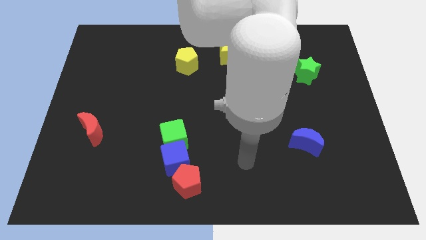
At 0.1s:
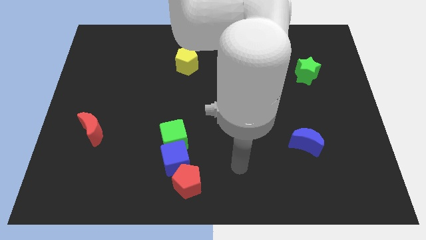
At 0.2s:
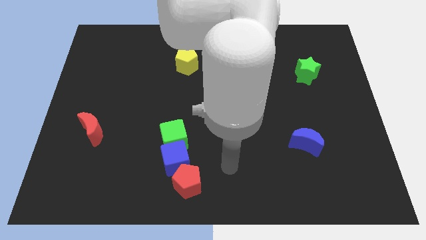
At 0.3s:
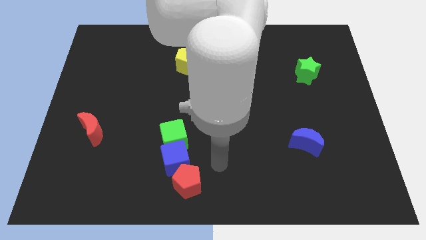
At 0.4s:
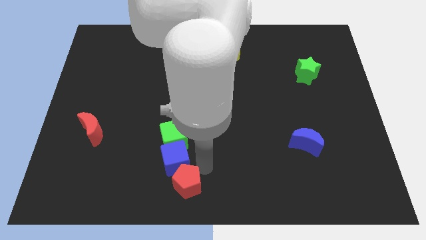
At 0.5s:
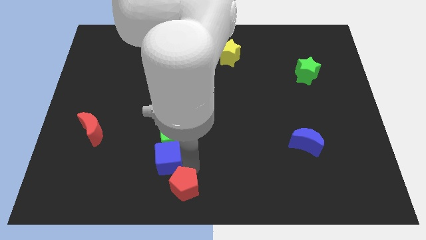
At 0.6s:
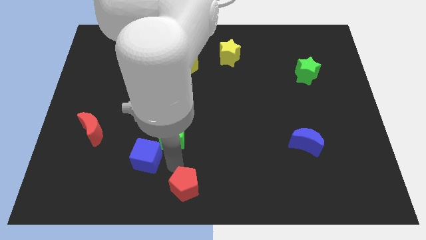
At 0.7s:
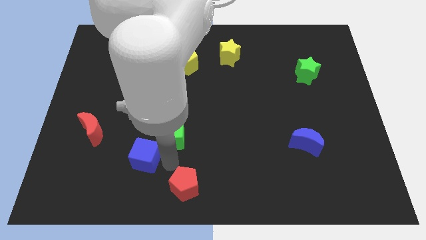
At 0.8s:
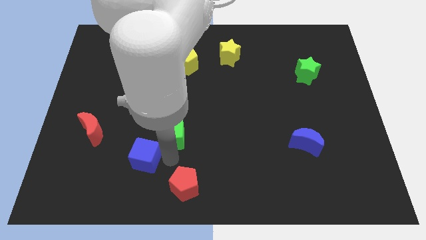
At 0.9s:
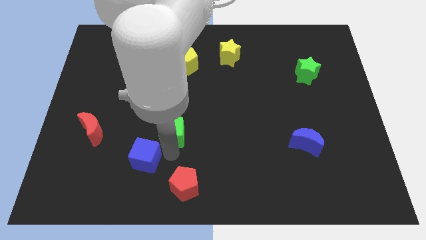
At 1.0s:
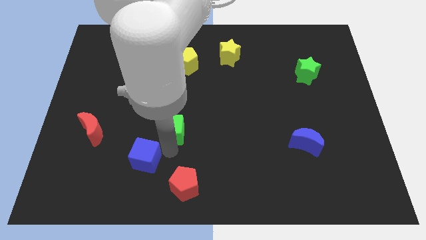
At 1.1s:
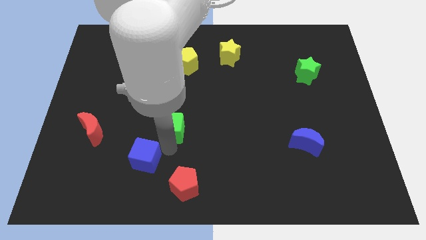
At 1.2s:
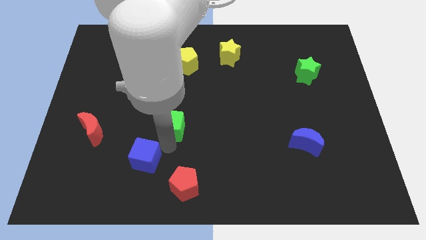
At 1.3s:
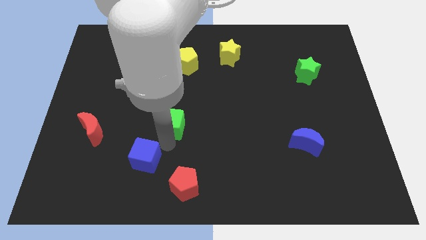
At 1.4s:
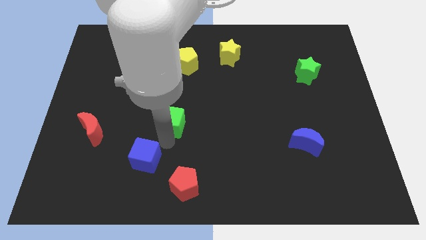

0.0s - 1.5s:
separate the green cube from the blue cube

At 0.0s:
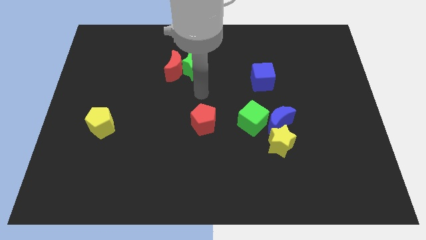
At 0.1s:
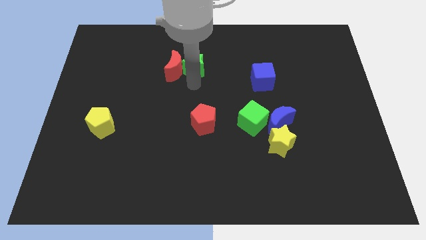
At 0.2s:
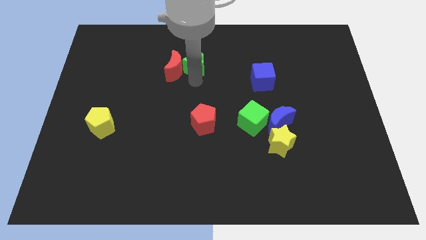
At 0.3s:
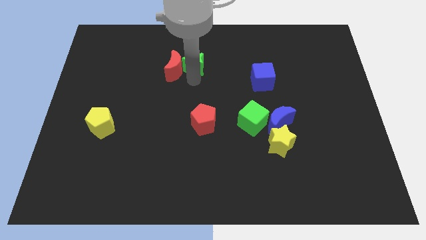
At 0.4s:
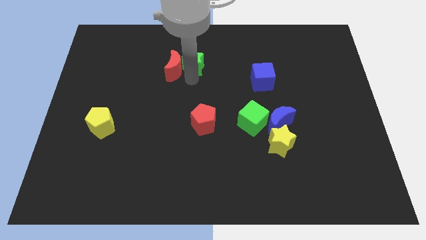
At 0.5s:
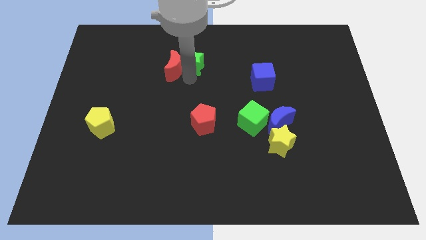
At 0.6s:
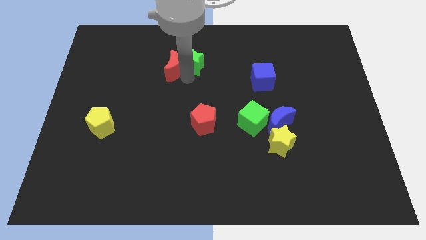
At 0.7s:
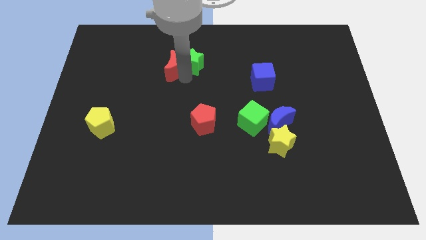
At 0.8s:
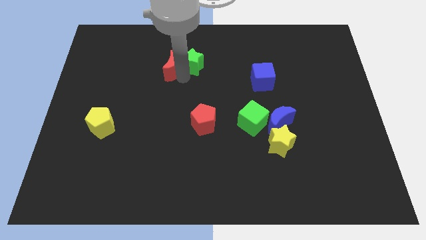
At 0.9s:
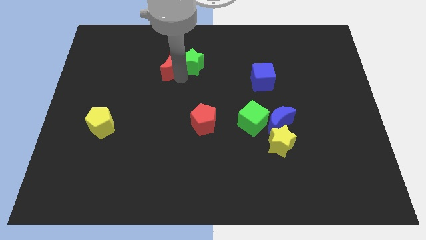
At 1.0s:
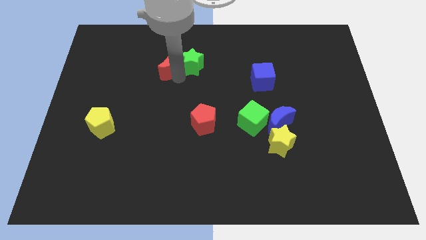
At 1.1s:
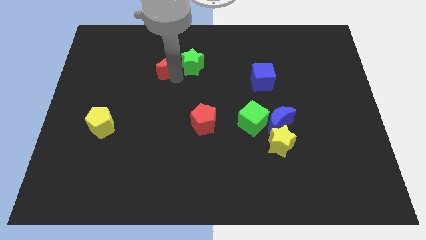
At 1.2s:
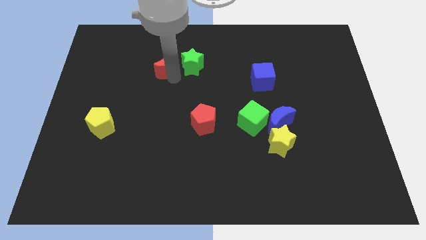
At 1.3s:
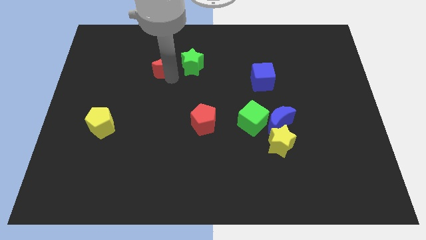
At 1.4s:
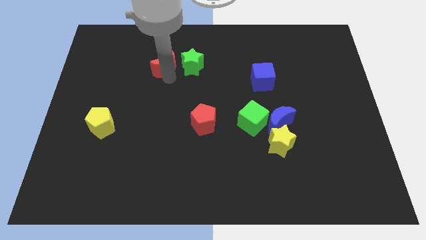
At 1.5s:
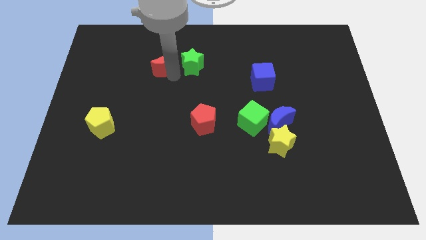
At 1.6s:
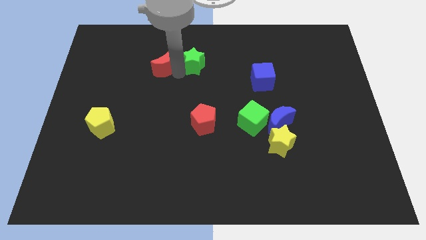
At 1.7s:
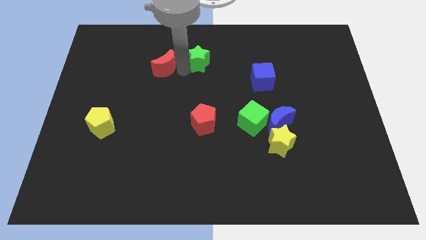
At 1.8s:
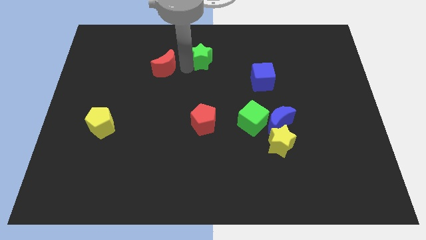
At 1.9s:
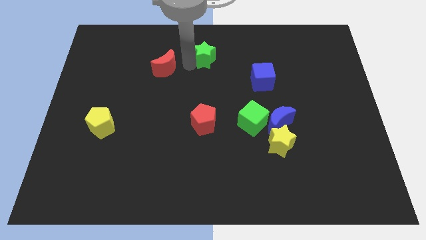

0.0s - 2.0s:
separate the red moon from the green star

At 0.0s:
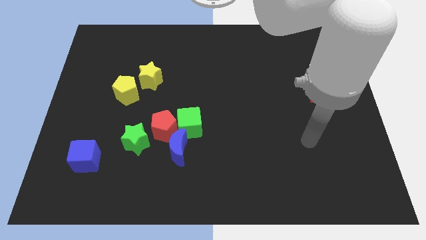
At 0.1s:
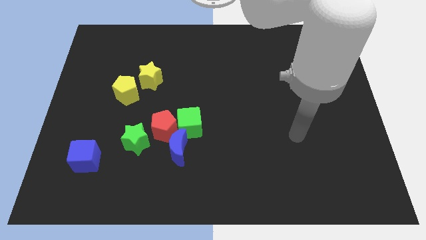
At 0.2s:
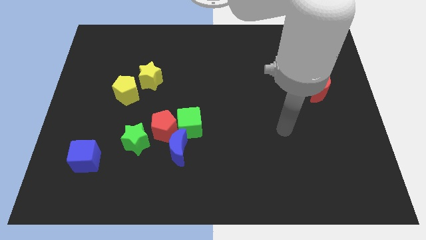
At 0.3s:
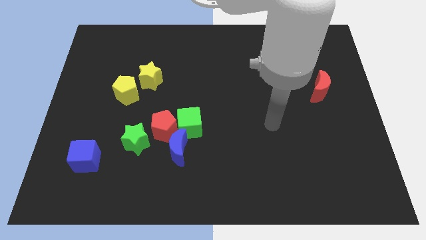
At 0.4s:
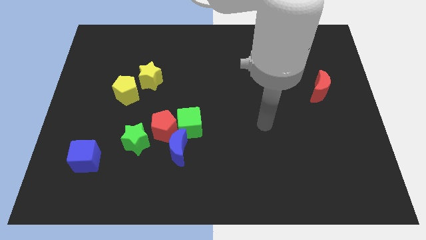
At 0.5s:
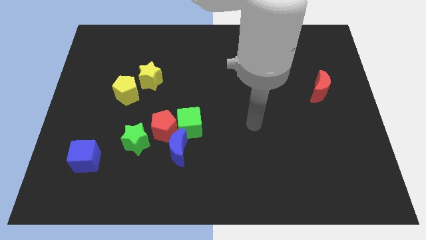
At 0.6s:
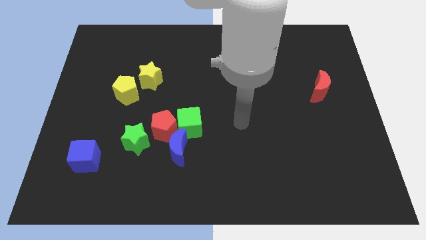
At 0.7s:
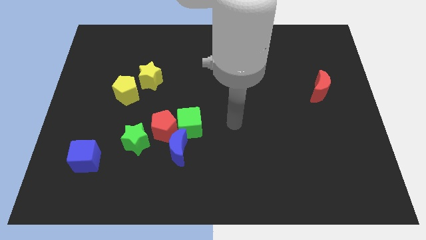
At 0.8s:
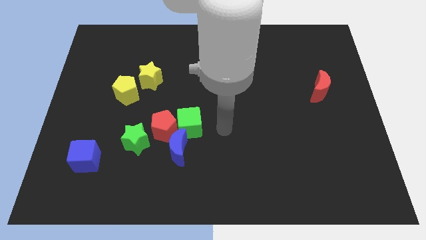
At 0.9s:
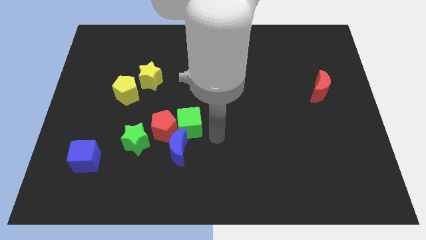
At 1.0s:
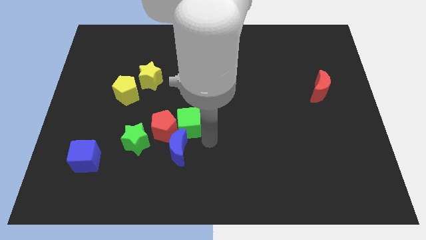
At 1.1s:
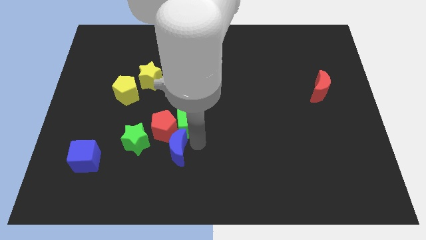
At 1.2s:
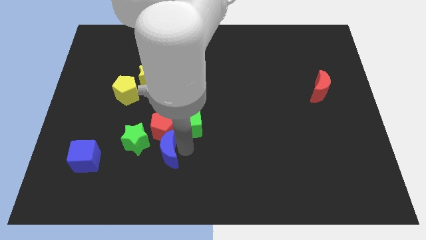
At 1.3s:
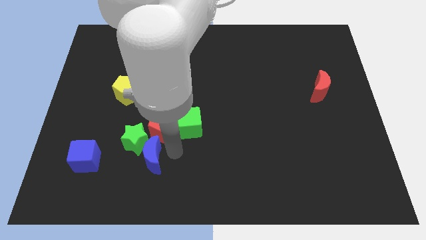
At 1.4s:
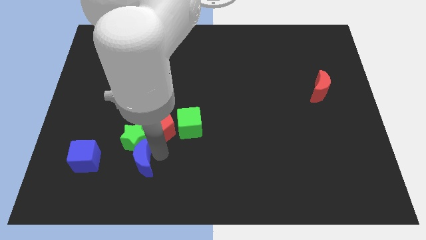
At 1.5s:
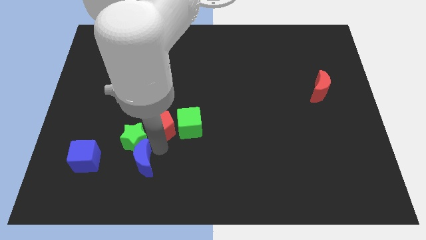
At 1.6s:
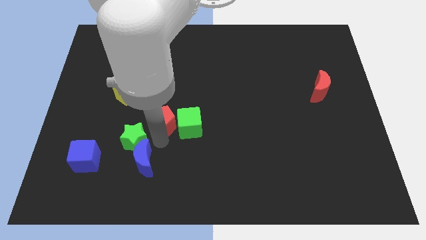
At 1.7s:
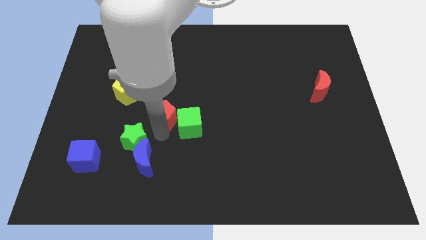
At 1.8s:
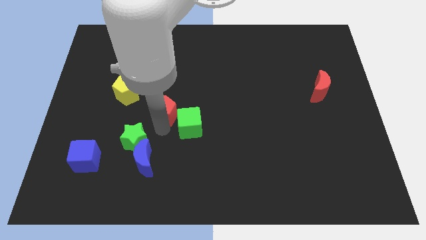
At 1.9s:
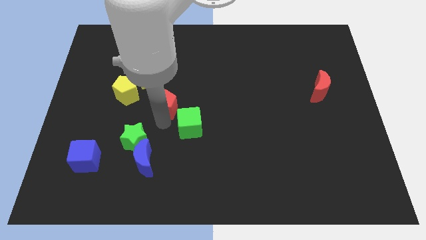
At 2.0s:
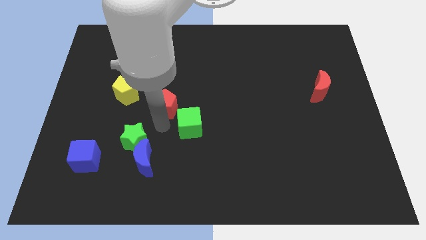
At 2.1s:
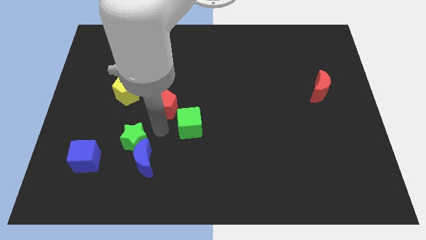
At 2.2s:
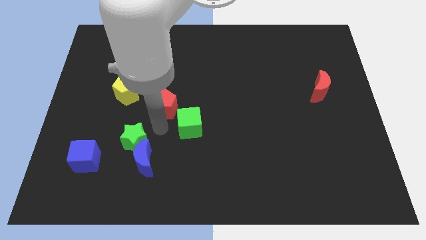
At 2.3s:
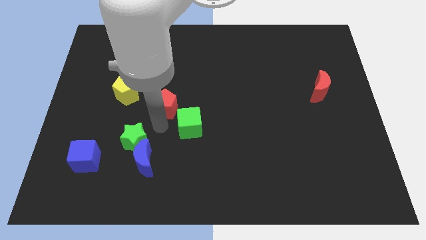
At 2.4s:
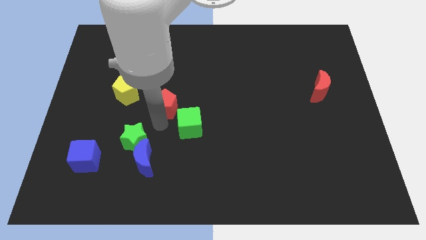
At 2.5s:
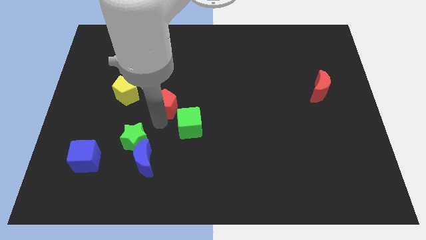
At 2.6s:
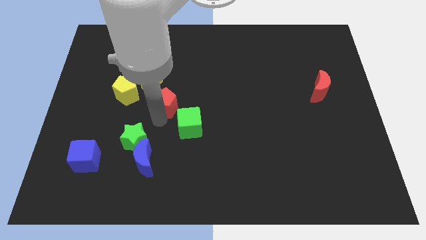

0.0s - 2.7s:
pull the red pentagon apart from the group

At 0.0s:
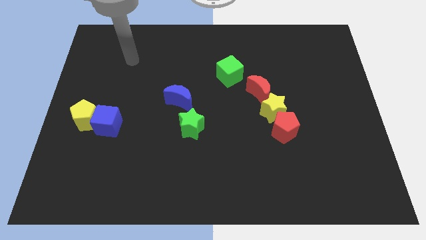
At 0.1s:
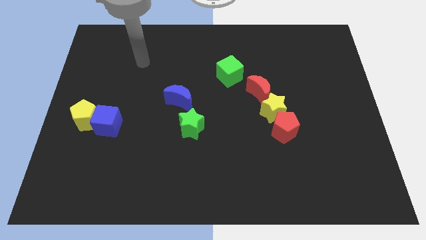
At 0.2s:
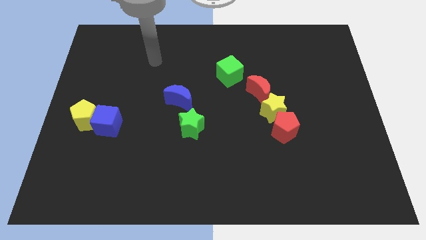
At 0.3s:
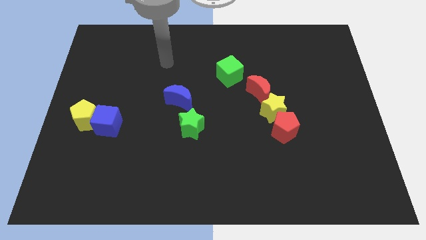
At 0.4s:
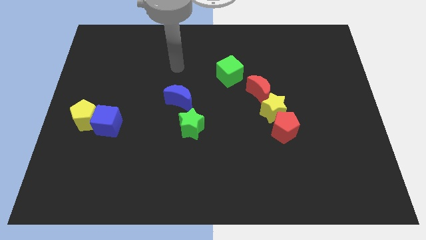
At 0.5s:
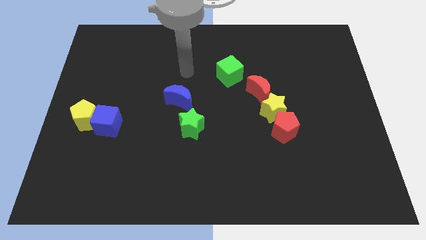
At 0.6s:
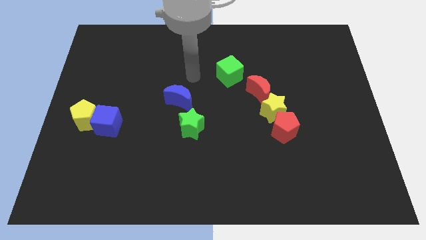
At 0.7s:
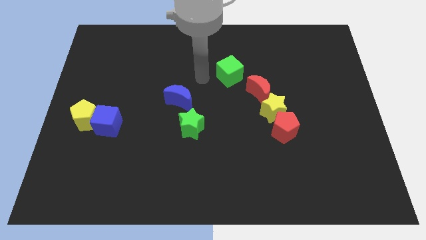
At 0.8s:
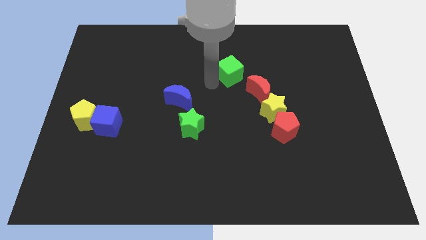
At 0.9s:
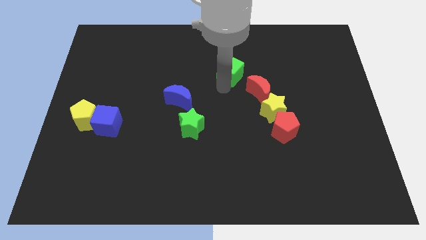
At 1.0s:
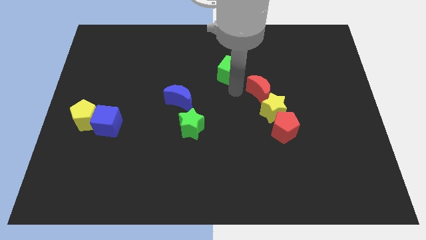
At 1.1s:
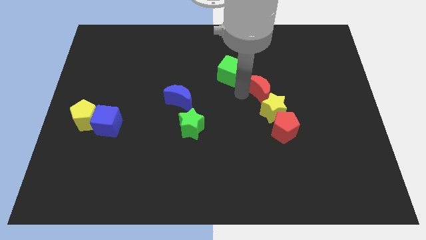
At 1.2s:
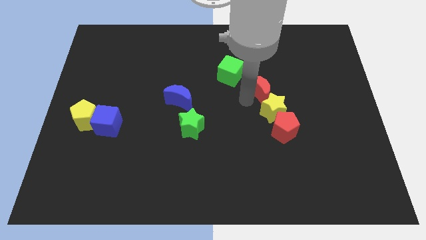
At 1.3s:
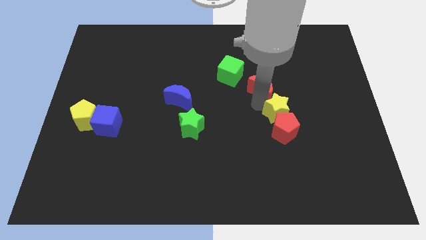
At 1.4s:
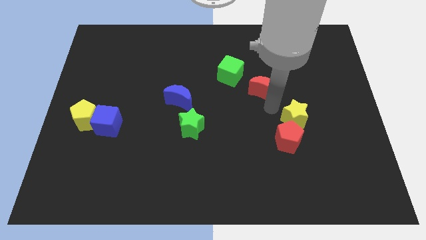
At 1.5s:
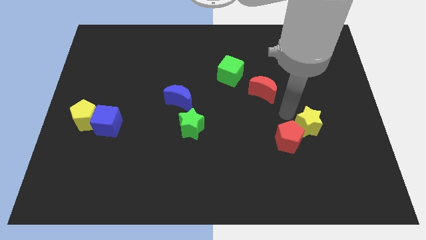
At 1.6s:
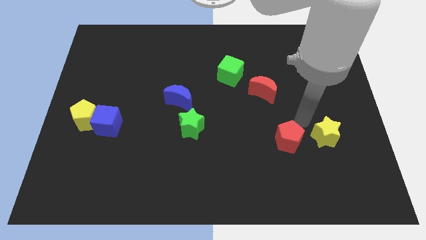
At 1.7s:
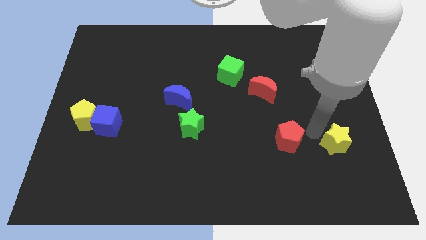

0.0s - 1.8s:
pull the red pentagon apart from the yellow star

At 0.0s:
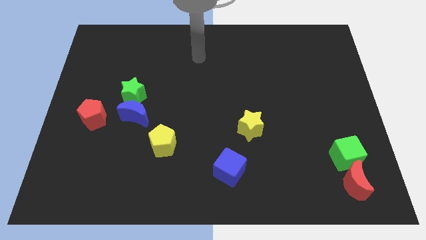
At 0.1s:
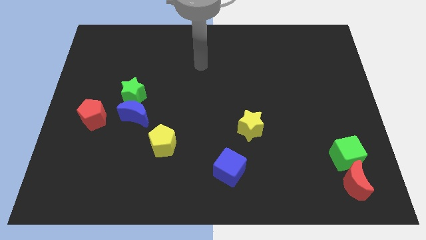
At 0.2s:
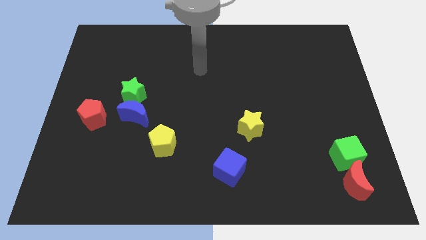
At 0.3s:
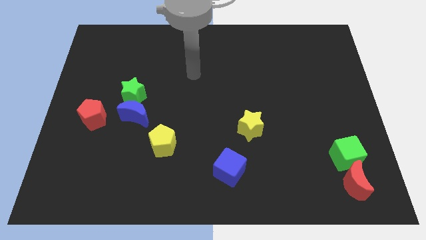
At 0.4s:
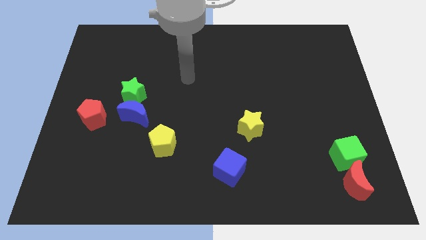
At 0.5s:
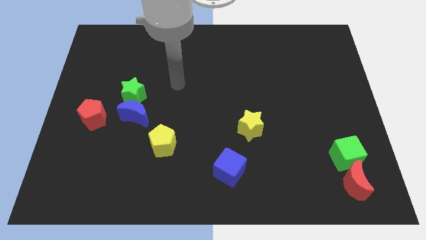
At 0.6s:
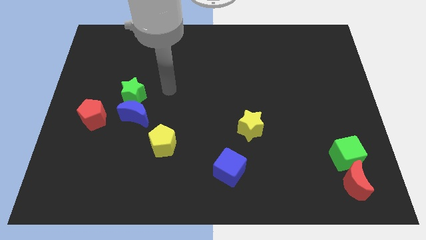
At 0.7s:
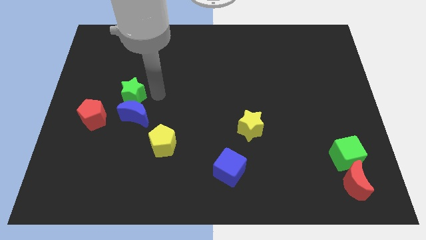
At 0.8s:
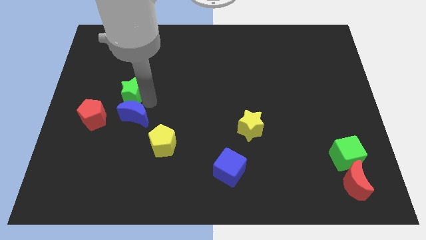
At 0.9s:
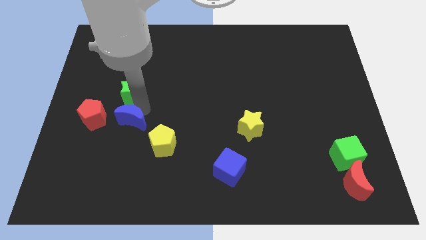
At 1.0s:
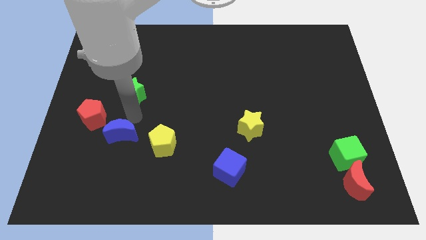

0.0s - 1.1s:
move the green star away from the blue moon

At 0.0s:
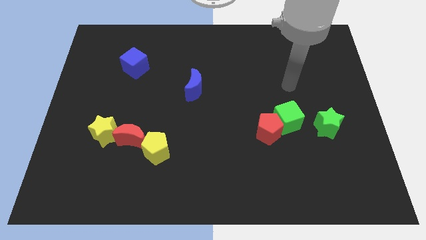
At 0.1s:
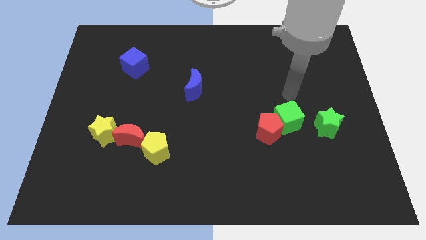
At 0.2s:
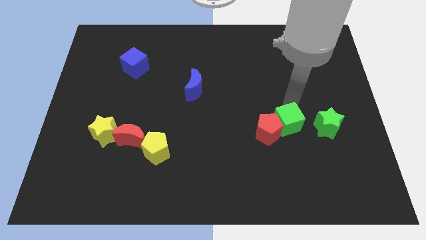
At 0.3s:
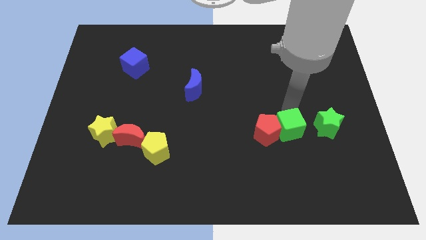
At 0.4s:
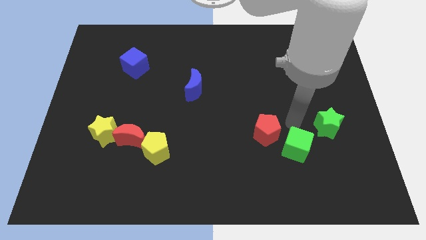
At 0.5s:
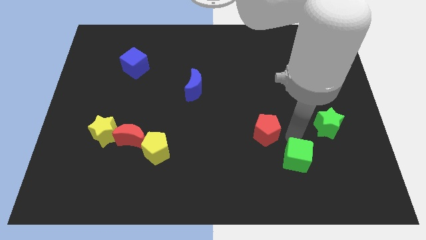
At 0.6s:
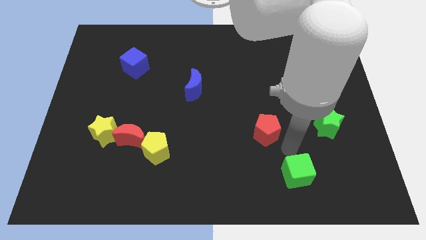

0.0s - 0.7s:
move the red pentagon away from the green cube
